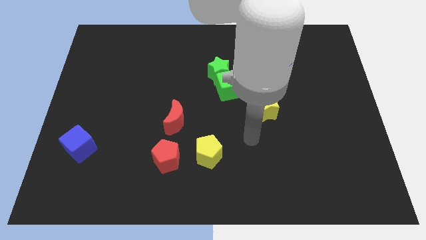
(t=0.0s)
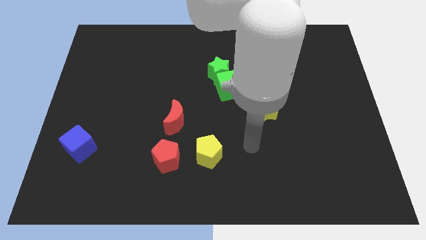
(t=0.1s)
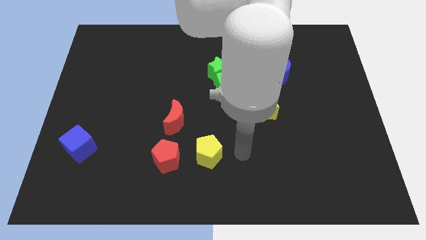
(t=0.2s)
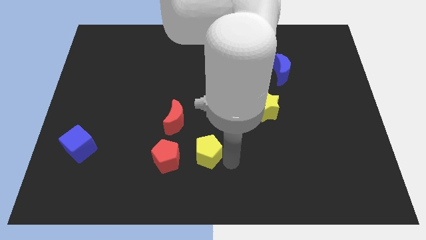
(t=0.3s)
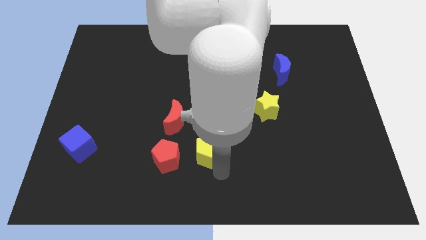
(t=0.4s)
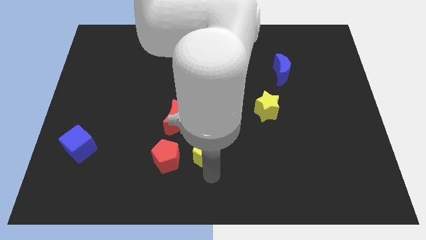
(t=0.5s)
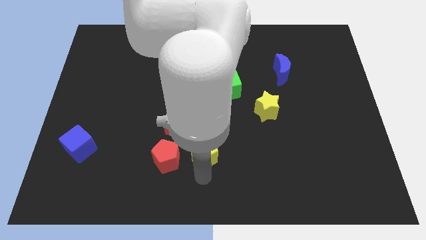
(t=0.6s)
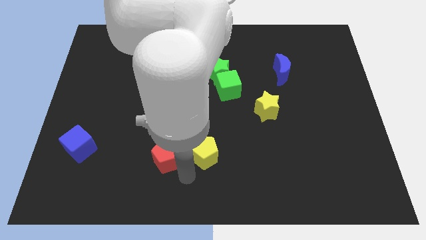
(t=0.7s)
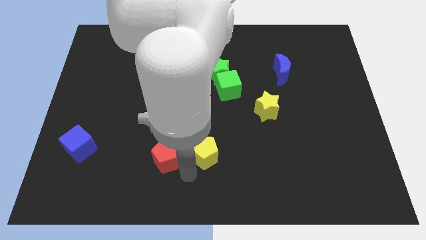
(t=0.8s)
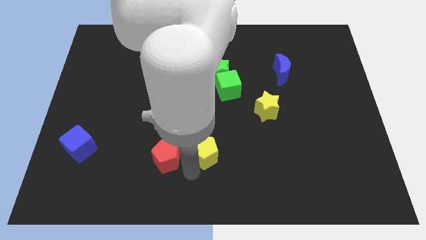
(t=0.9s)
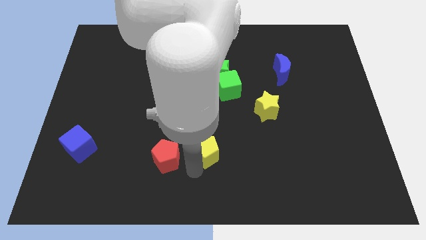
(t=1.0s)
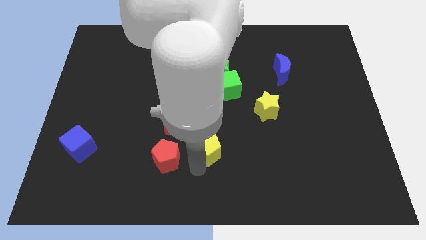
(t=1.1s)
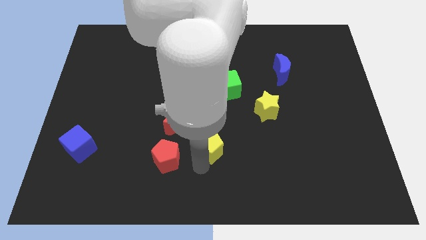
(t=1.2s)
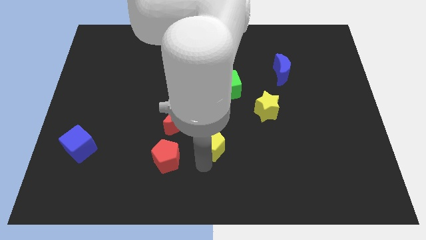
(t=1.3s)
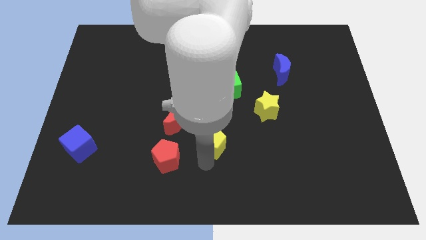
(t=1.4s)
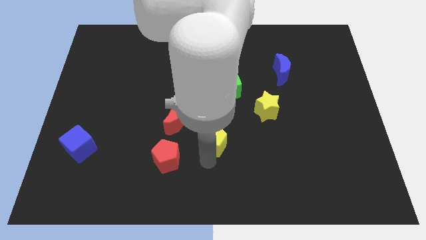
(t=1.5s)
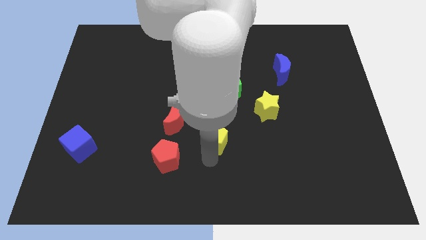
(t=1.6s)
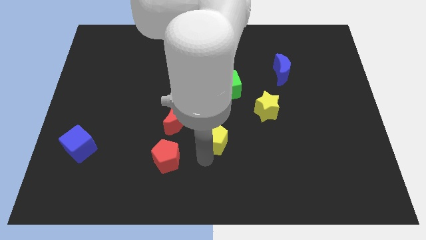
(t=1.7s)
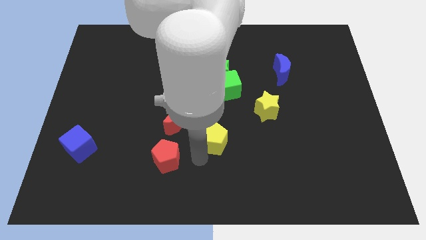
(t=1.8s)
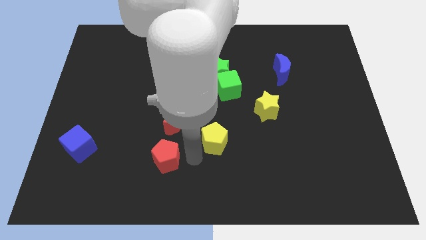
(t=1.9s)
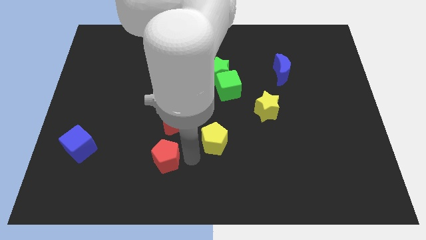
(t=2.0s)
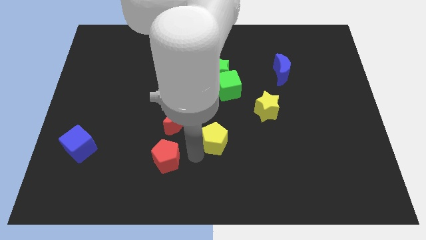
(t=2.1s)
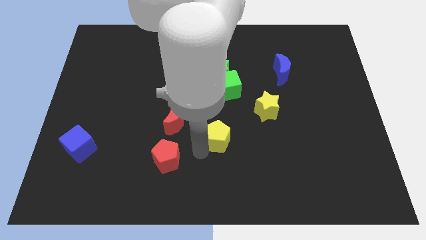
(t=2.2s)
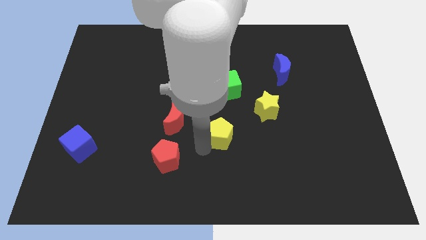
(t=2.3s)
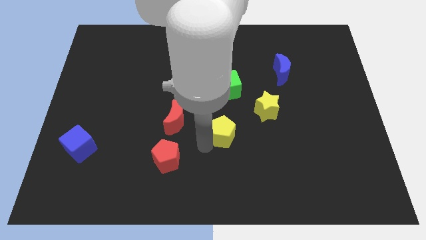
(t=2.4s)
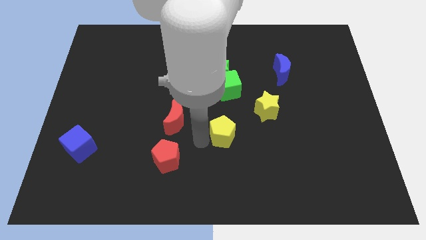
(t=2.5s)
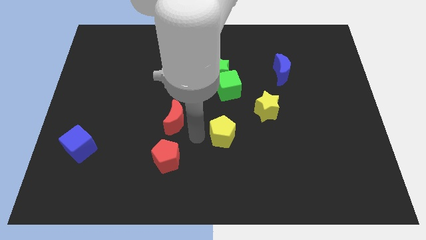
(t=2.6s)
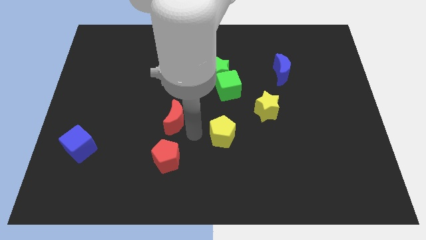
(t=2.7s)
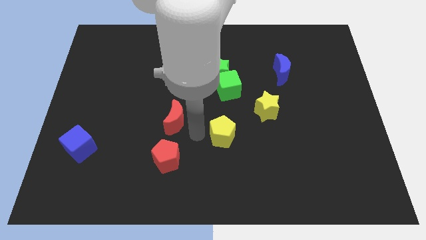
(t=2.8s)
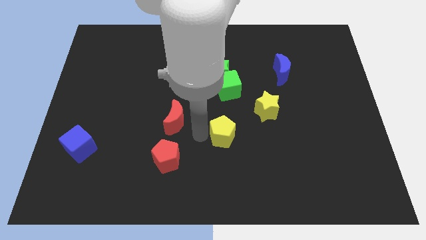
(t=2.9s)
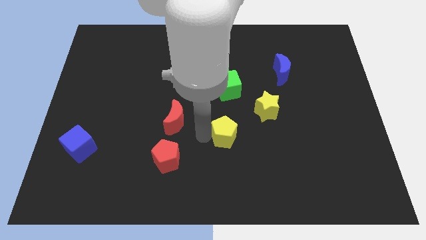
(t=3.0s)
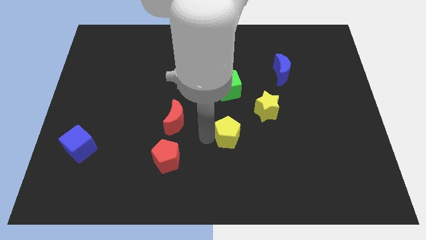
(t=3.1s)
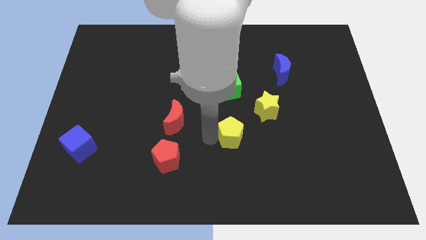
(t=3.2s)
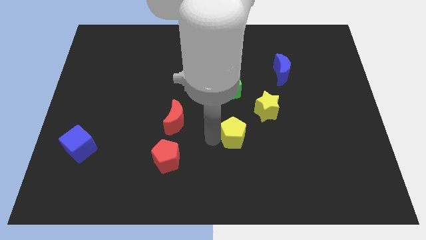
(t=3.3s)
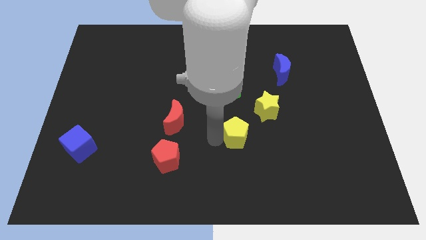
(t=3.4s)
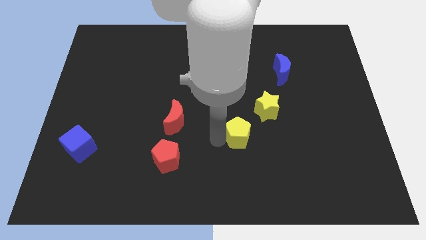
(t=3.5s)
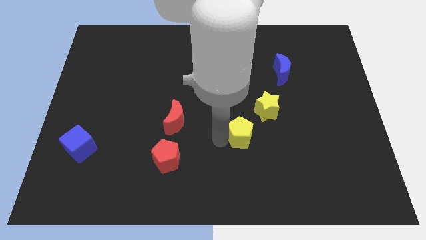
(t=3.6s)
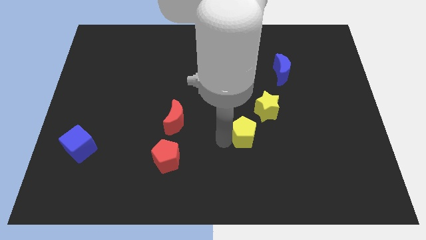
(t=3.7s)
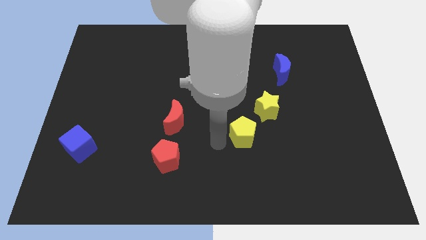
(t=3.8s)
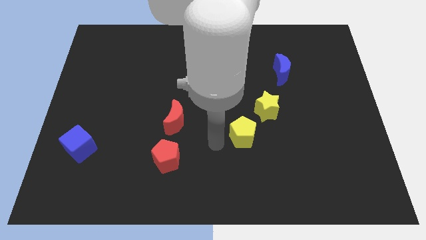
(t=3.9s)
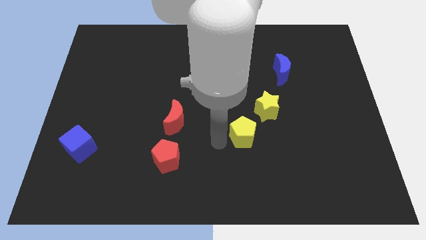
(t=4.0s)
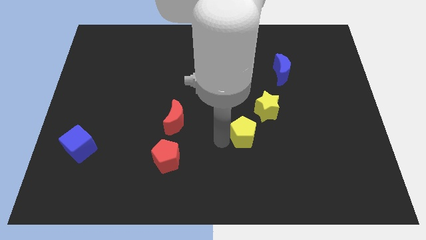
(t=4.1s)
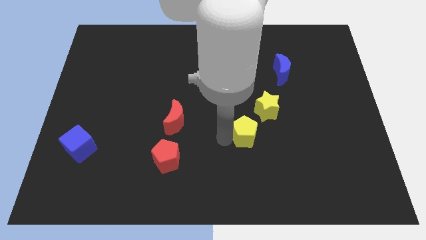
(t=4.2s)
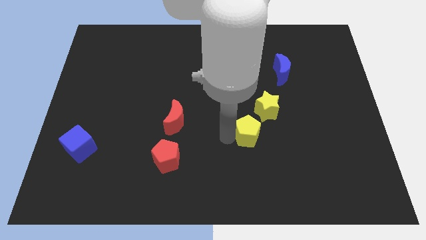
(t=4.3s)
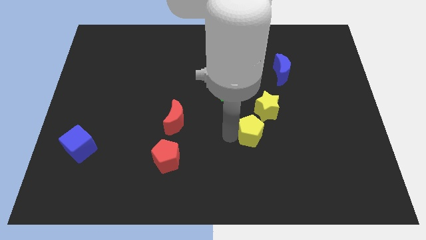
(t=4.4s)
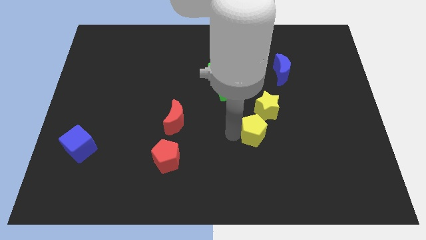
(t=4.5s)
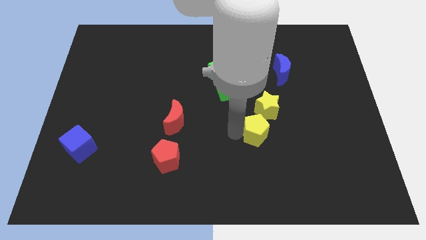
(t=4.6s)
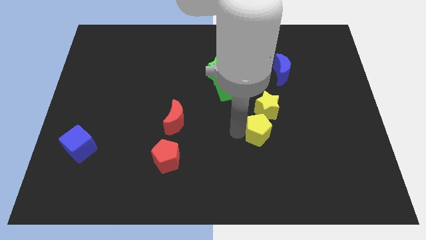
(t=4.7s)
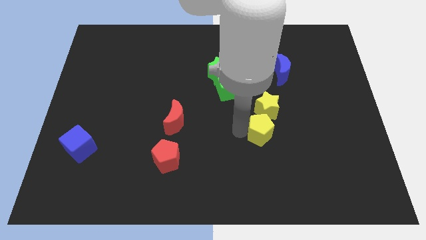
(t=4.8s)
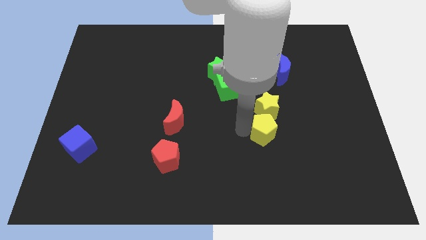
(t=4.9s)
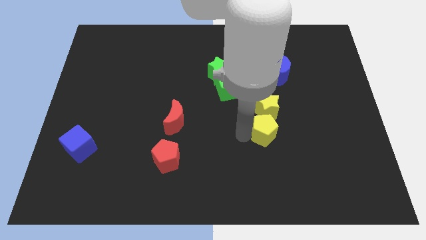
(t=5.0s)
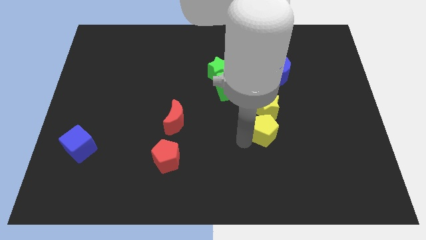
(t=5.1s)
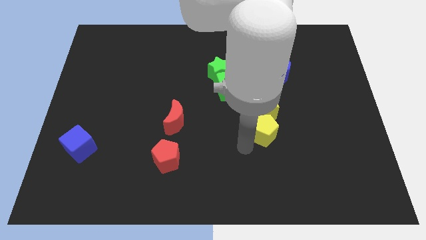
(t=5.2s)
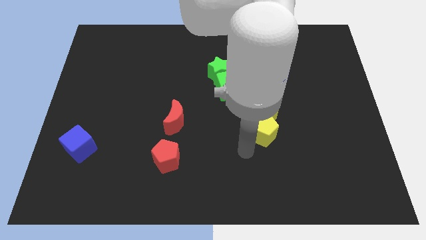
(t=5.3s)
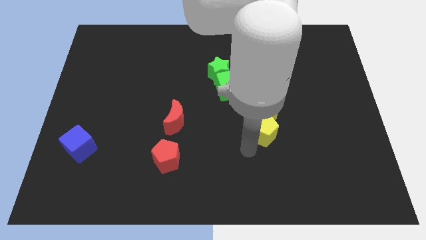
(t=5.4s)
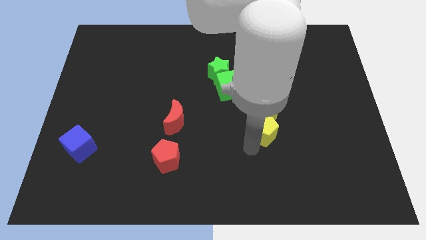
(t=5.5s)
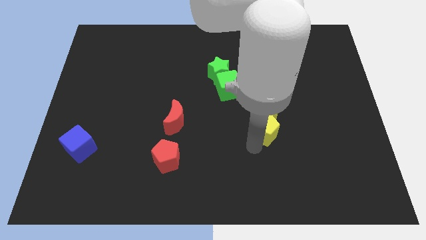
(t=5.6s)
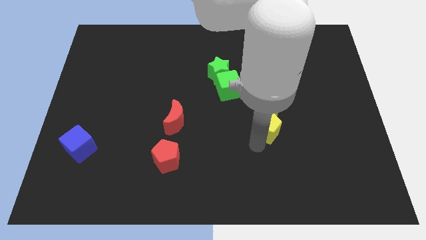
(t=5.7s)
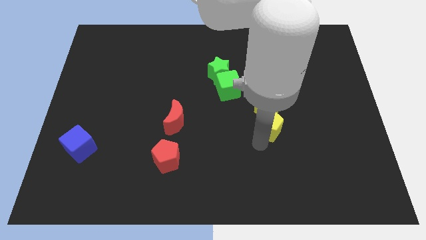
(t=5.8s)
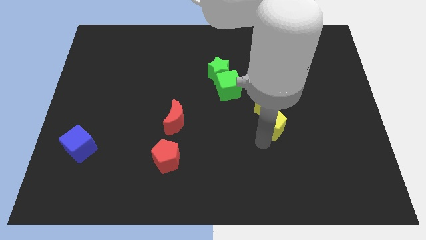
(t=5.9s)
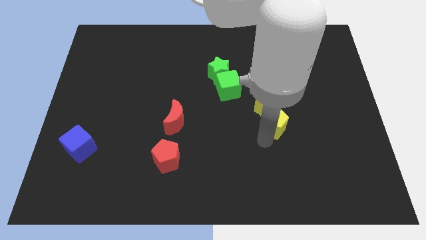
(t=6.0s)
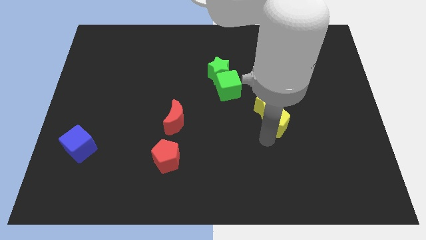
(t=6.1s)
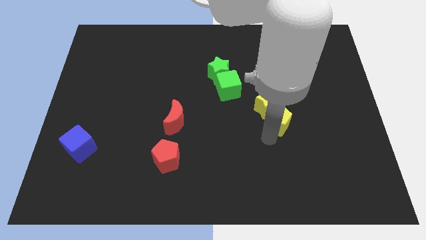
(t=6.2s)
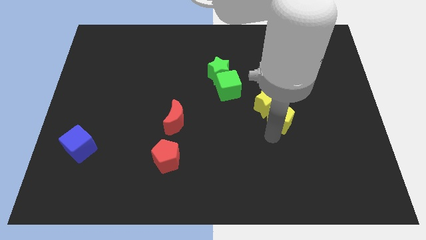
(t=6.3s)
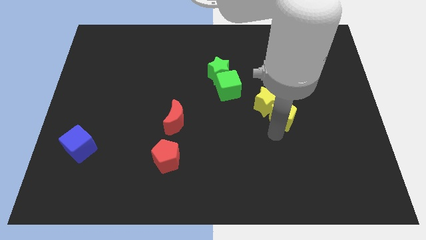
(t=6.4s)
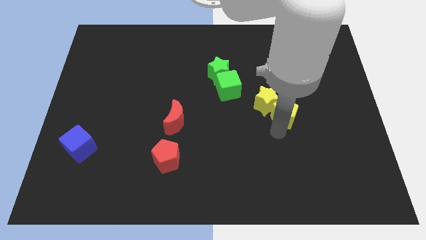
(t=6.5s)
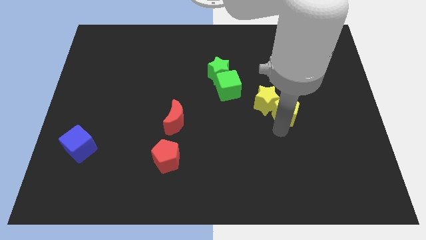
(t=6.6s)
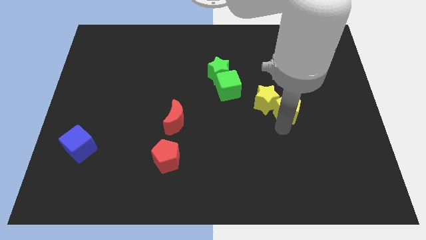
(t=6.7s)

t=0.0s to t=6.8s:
push the yellow pentagon upwards and right diagonally

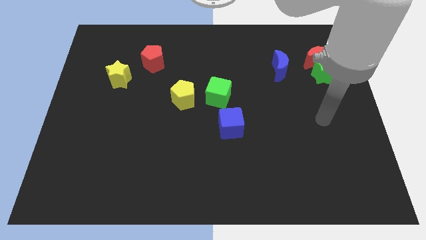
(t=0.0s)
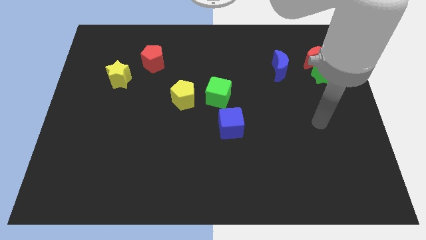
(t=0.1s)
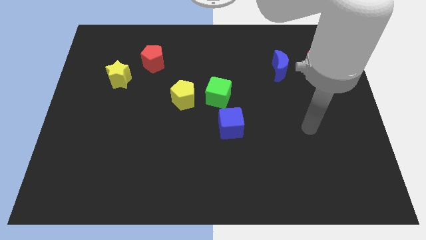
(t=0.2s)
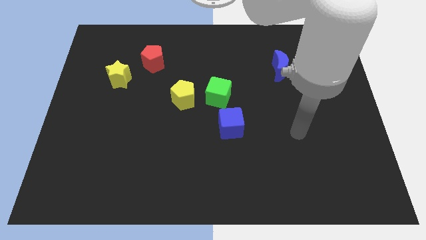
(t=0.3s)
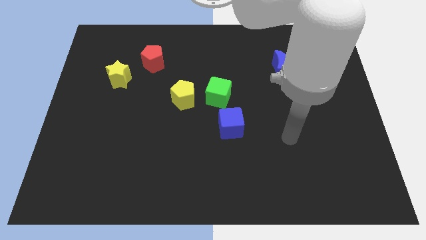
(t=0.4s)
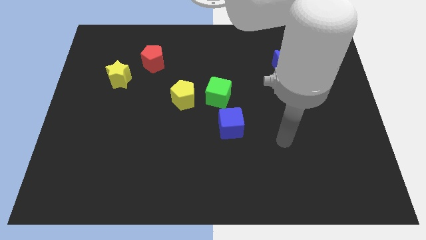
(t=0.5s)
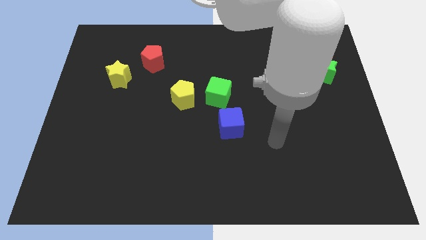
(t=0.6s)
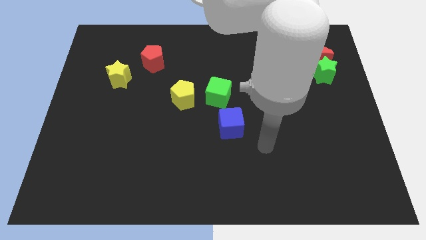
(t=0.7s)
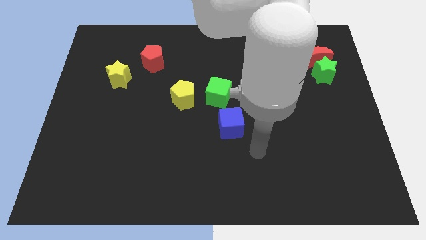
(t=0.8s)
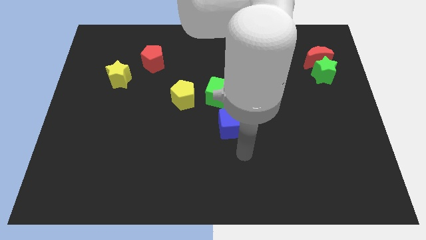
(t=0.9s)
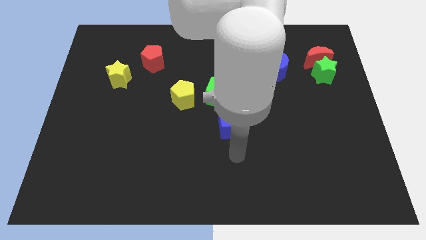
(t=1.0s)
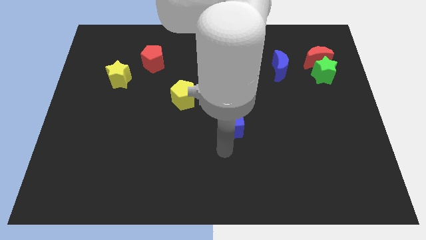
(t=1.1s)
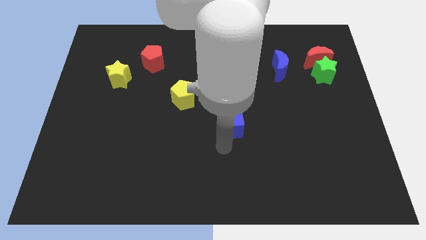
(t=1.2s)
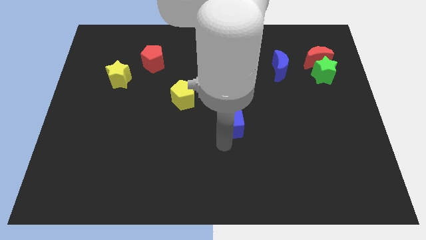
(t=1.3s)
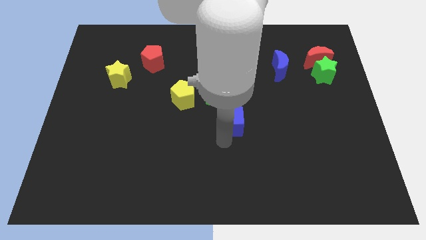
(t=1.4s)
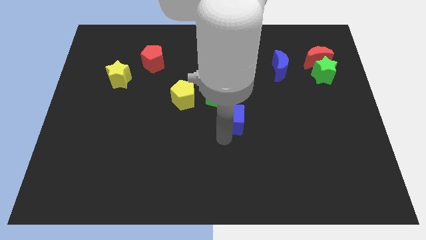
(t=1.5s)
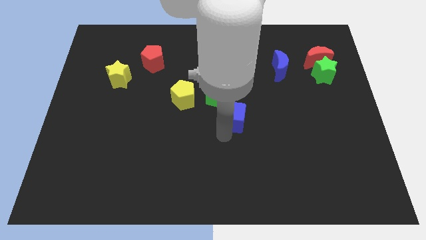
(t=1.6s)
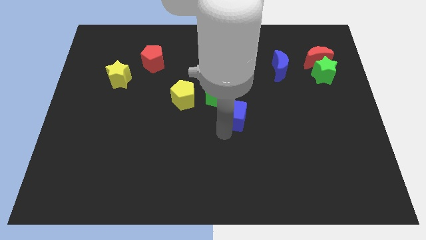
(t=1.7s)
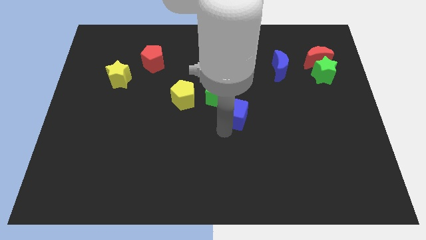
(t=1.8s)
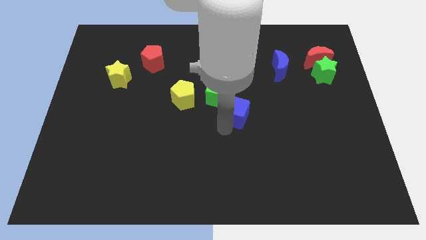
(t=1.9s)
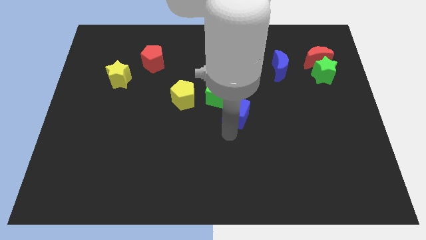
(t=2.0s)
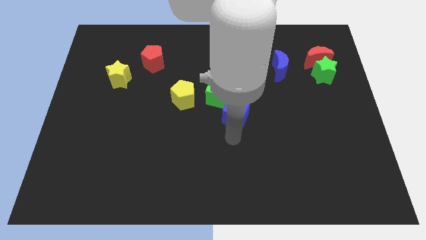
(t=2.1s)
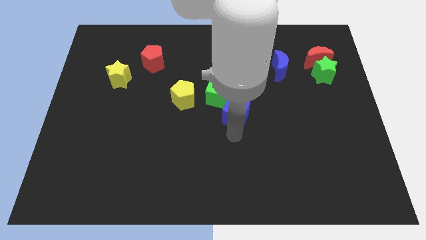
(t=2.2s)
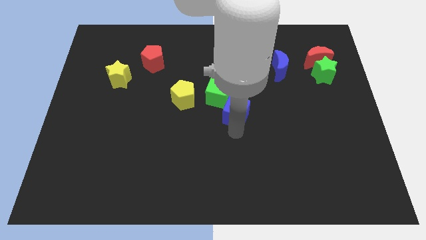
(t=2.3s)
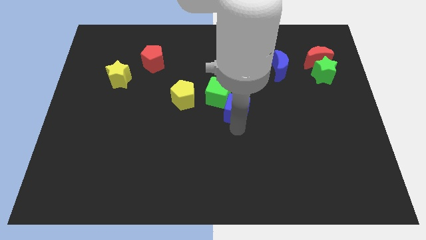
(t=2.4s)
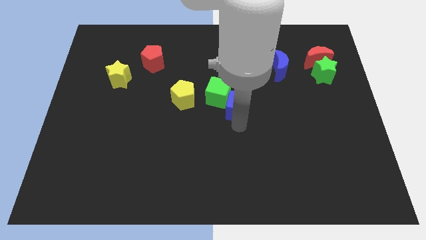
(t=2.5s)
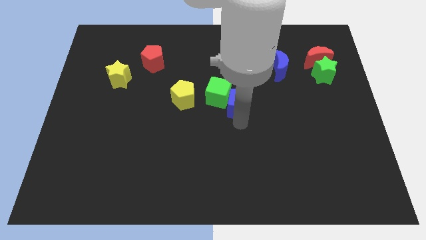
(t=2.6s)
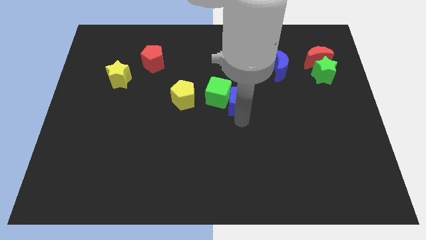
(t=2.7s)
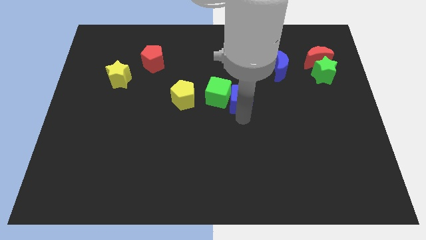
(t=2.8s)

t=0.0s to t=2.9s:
slightly push the blue cube up
